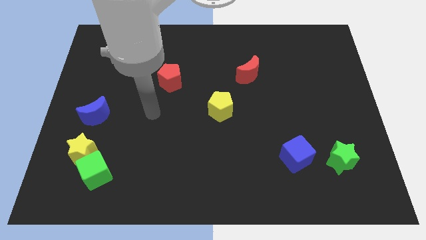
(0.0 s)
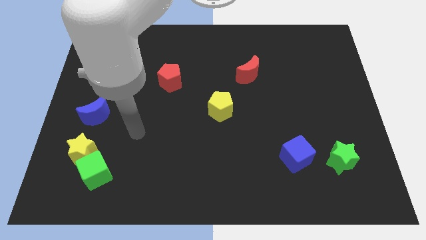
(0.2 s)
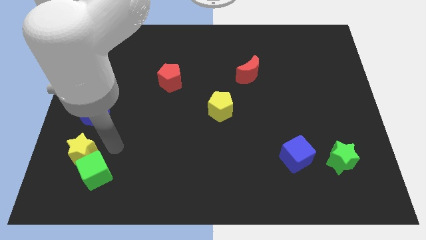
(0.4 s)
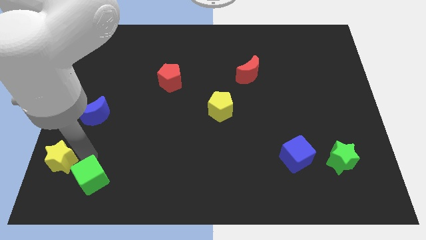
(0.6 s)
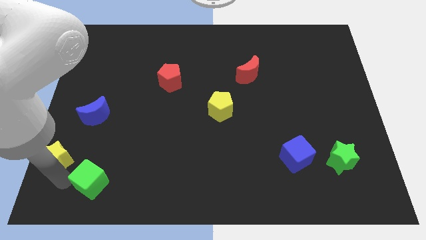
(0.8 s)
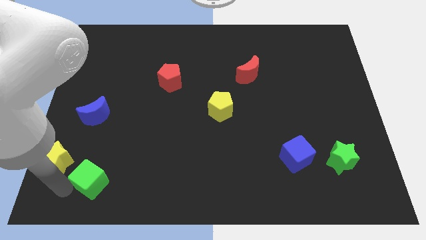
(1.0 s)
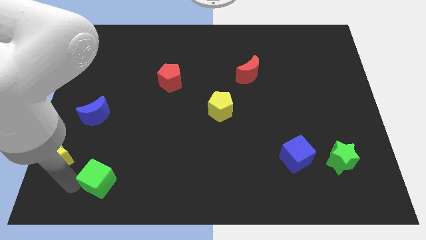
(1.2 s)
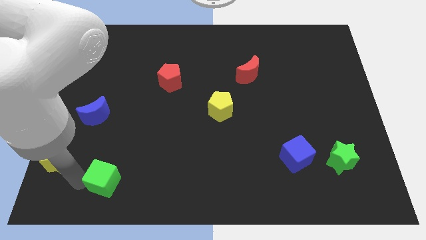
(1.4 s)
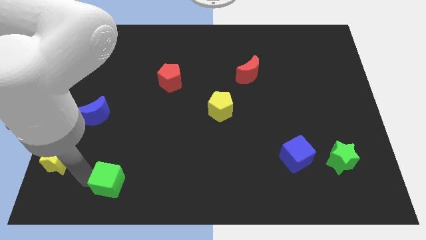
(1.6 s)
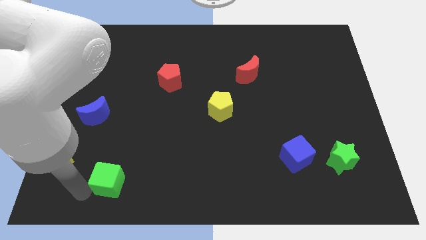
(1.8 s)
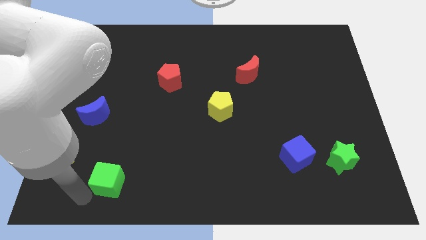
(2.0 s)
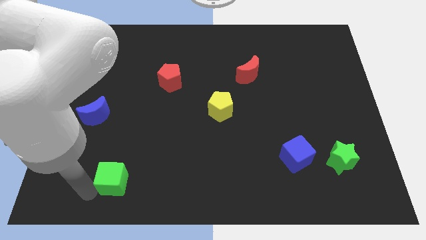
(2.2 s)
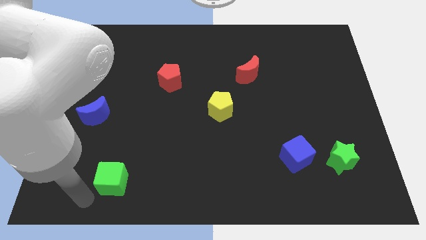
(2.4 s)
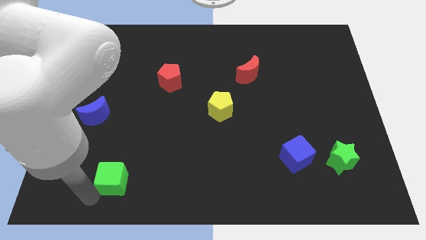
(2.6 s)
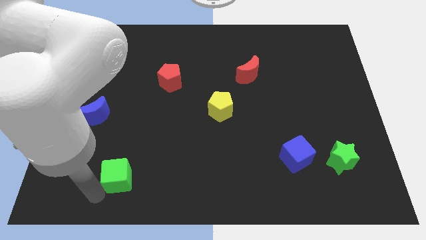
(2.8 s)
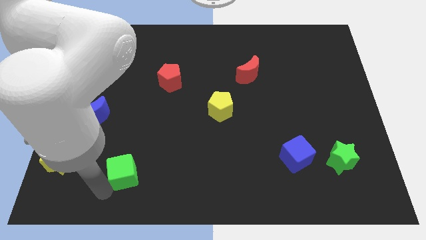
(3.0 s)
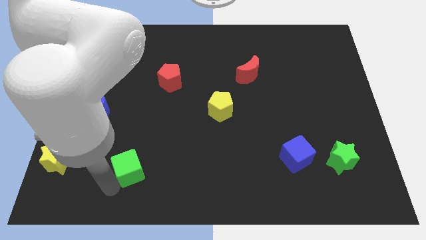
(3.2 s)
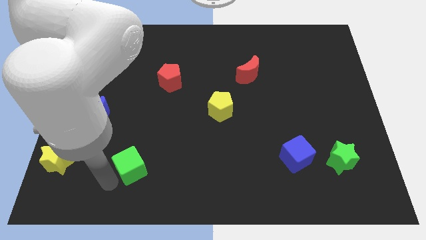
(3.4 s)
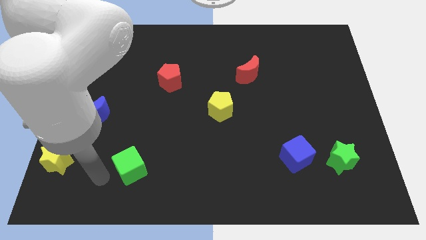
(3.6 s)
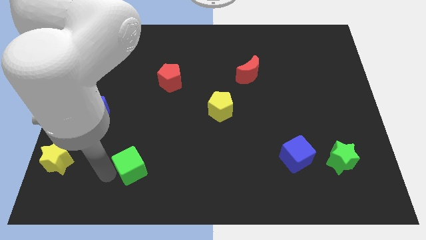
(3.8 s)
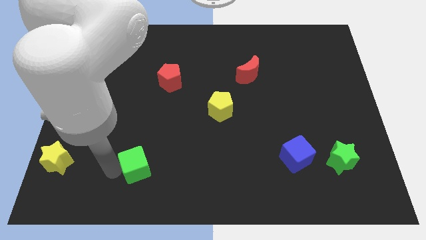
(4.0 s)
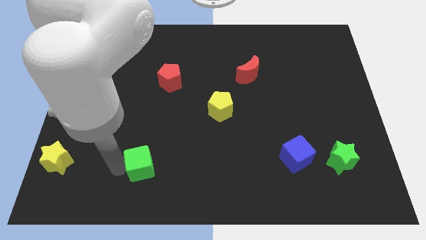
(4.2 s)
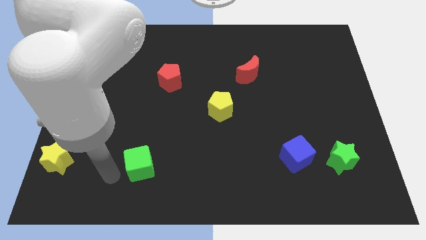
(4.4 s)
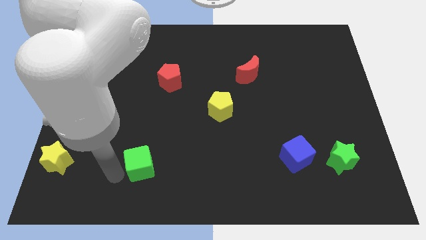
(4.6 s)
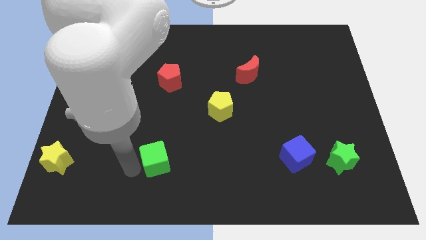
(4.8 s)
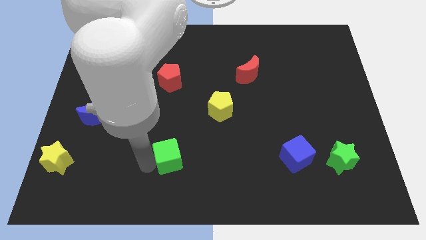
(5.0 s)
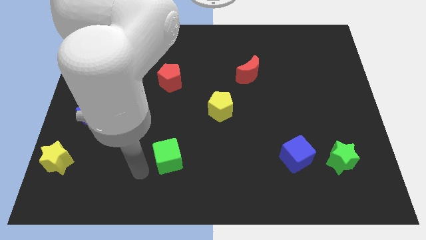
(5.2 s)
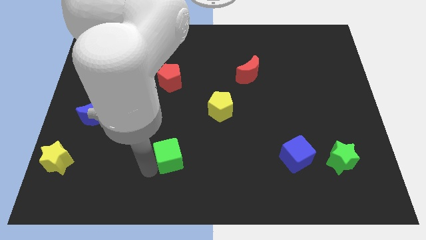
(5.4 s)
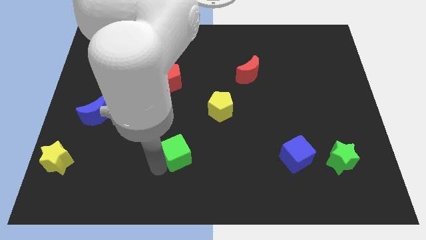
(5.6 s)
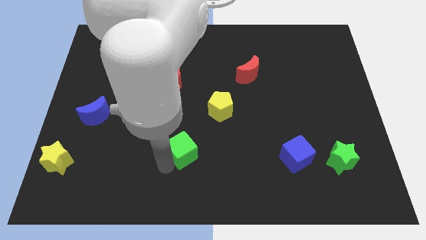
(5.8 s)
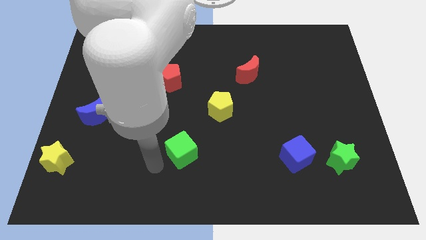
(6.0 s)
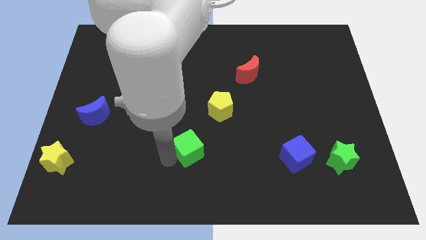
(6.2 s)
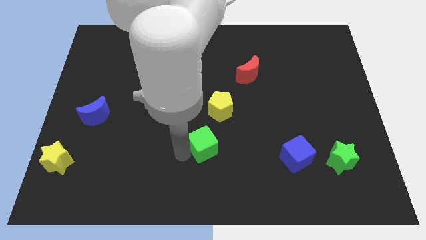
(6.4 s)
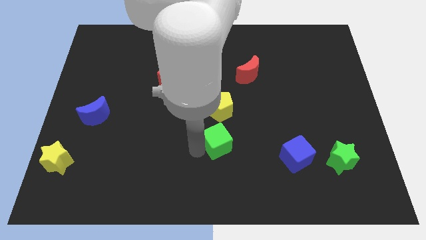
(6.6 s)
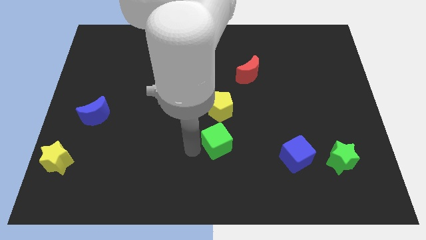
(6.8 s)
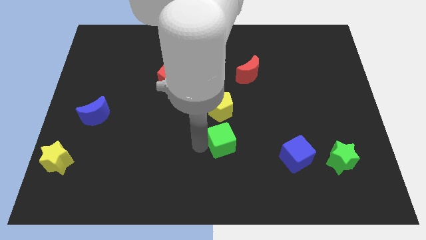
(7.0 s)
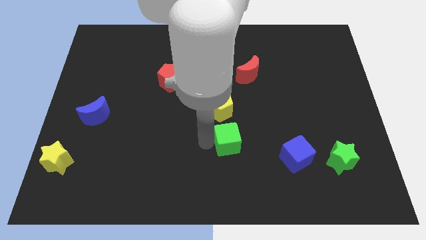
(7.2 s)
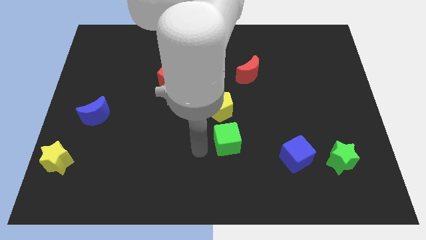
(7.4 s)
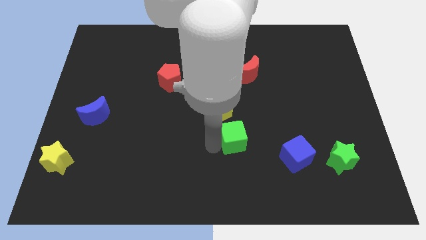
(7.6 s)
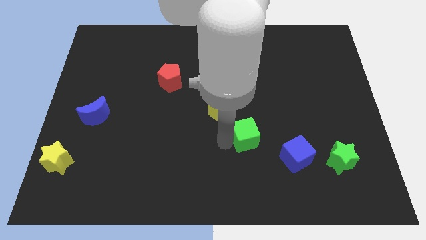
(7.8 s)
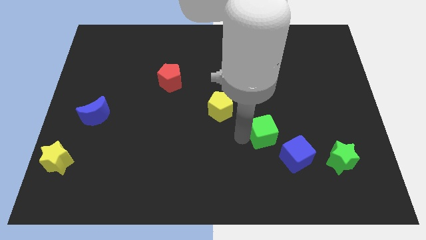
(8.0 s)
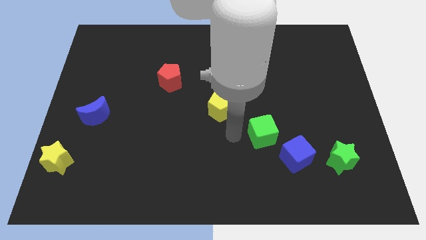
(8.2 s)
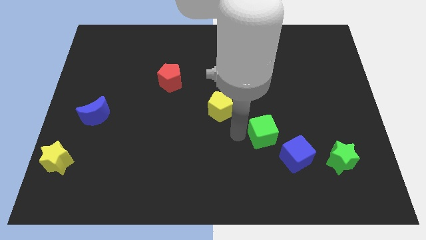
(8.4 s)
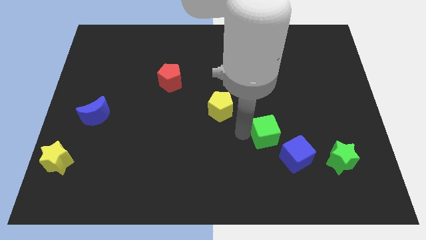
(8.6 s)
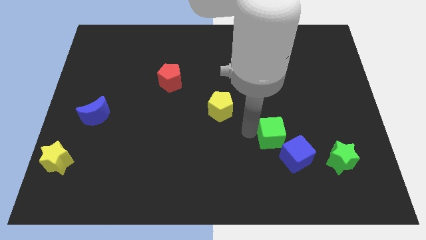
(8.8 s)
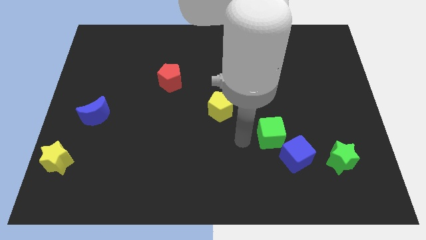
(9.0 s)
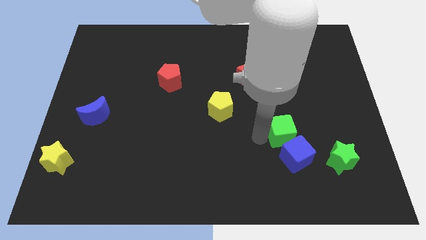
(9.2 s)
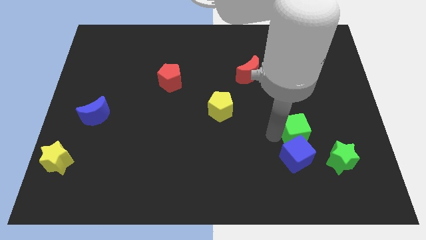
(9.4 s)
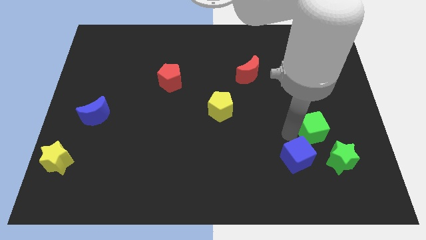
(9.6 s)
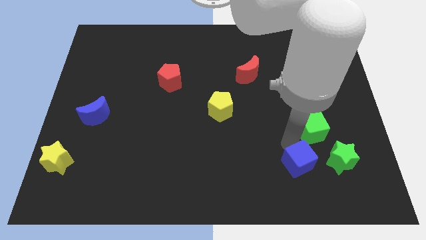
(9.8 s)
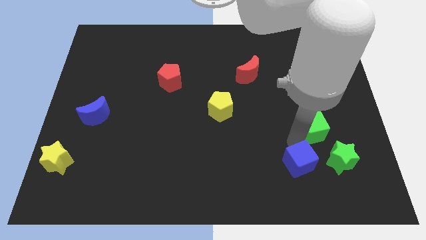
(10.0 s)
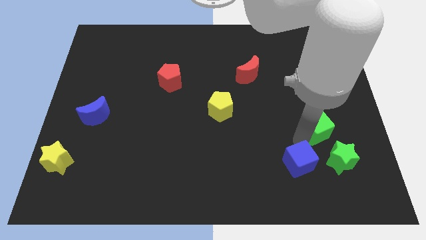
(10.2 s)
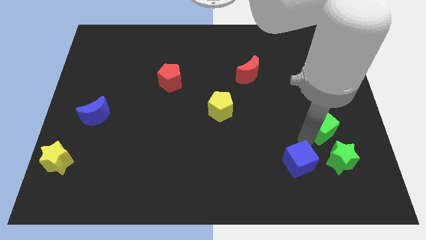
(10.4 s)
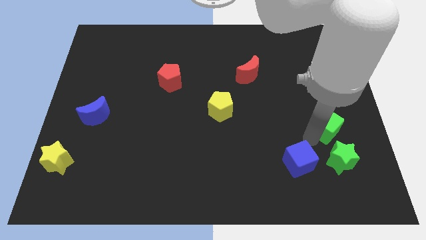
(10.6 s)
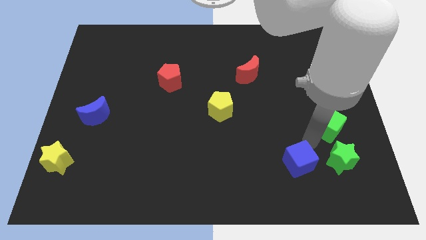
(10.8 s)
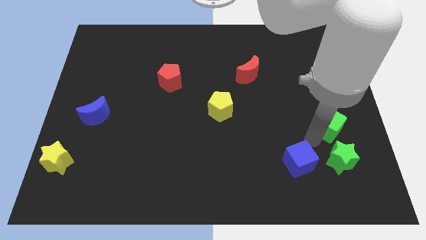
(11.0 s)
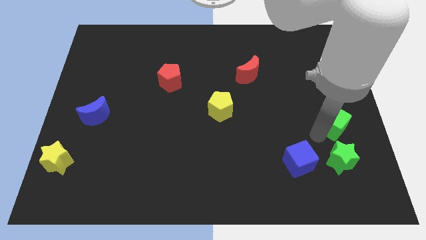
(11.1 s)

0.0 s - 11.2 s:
put the green cube to the center right

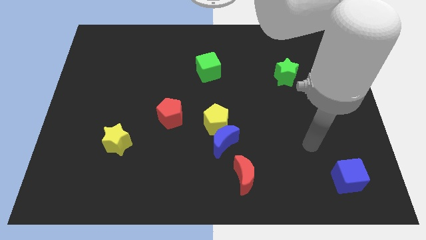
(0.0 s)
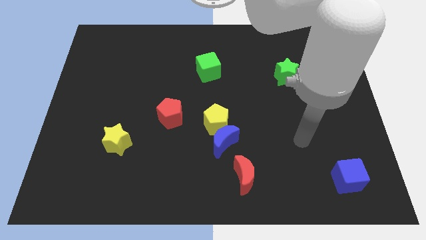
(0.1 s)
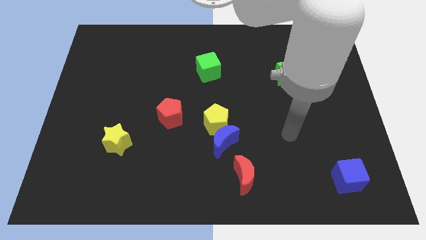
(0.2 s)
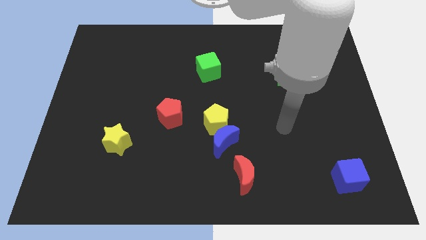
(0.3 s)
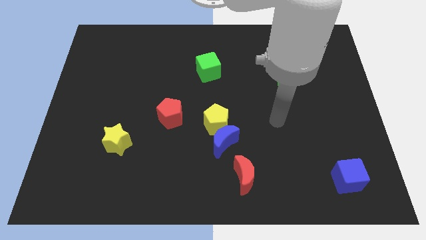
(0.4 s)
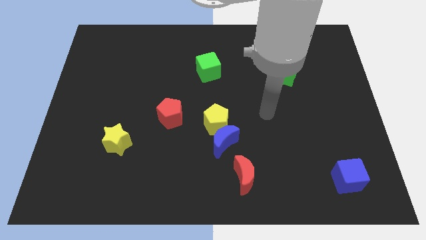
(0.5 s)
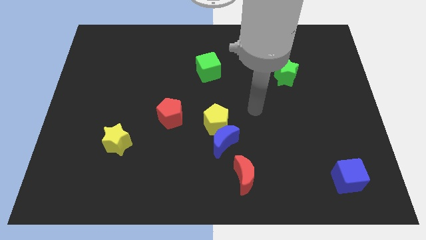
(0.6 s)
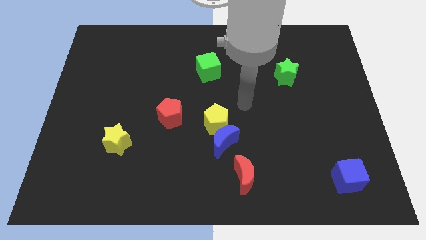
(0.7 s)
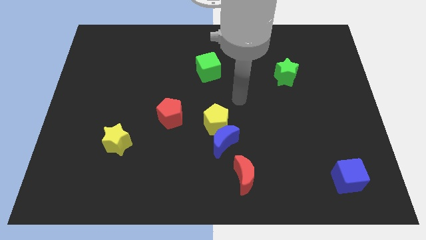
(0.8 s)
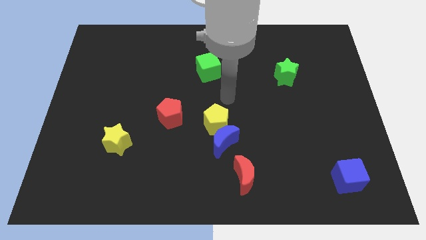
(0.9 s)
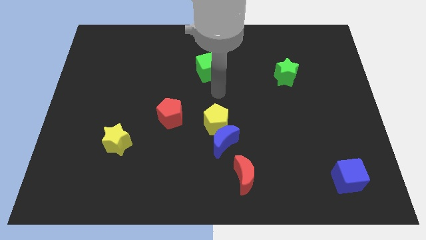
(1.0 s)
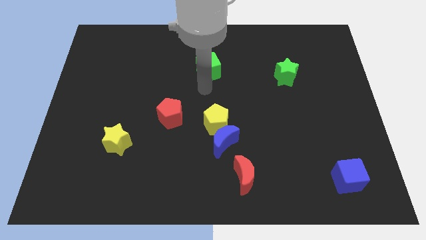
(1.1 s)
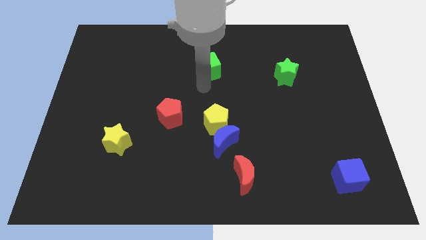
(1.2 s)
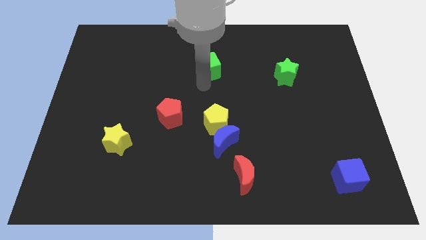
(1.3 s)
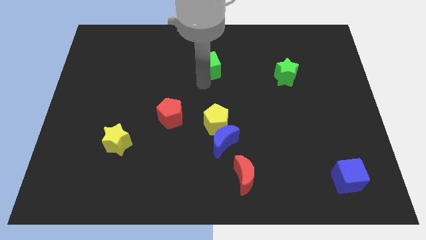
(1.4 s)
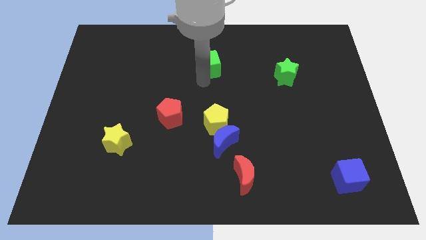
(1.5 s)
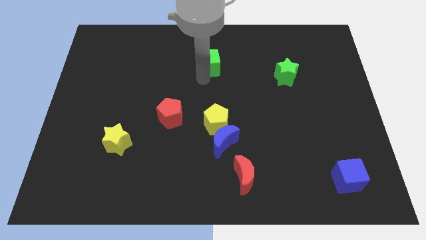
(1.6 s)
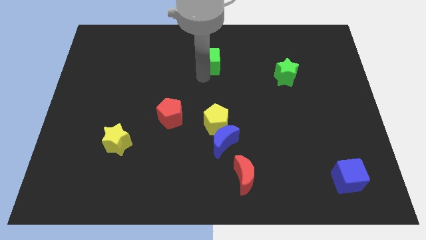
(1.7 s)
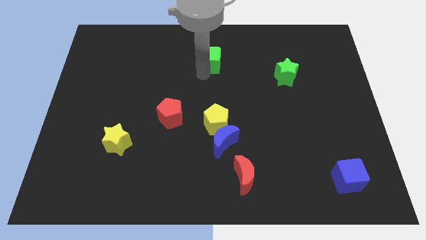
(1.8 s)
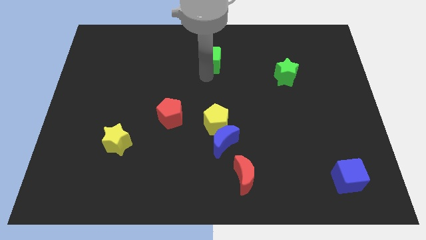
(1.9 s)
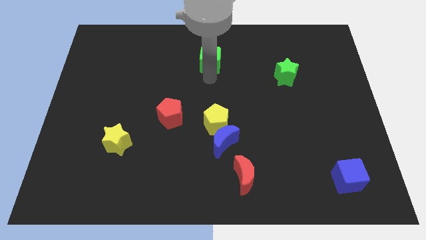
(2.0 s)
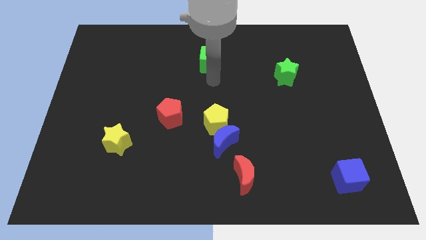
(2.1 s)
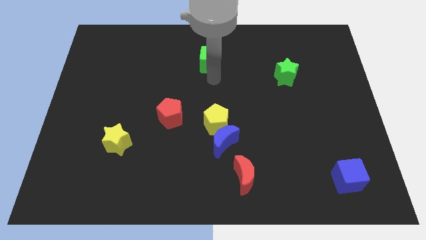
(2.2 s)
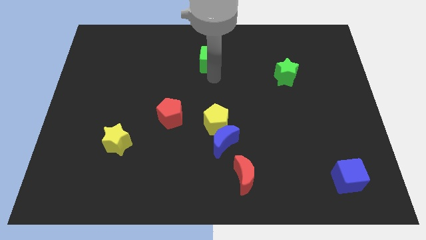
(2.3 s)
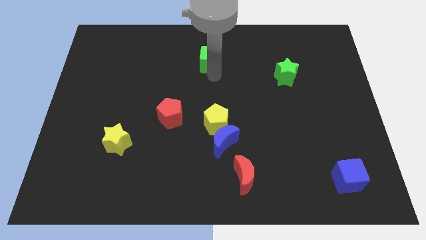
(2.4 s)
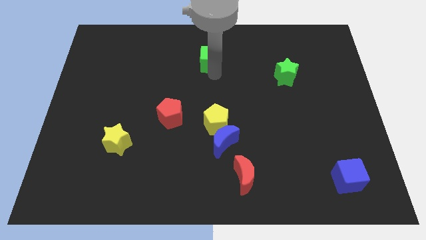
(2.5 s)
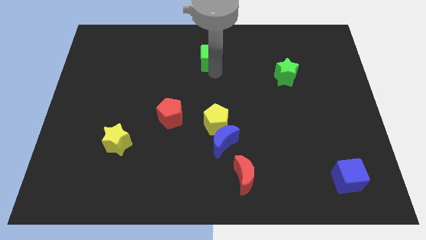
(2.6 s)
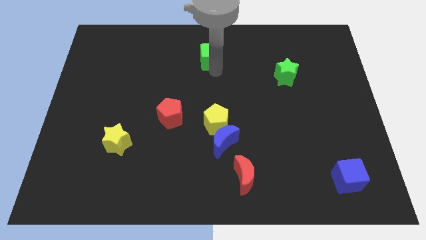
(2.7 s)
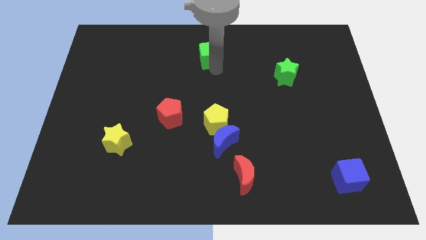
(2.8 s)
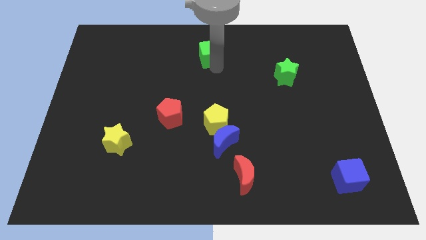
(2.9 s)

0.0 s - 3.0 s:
push the green cube to the towards your base
